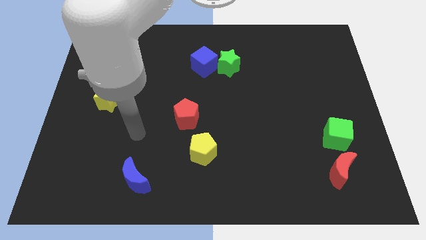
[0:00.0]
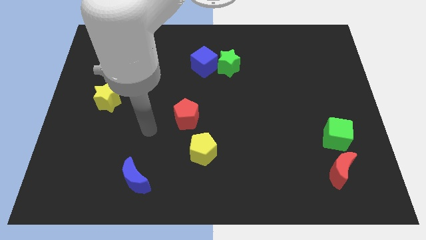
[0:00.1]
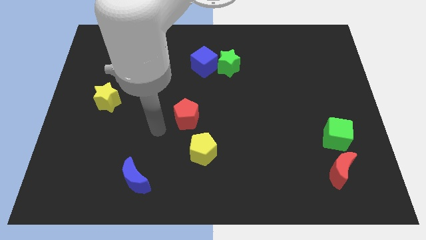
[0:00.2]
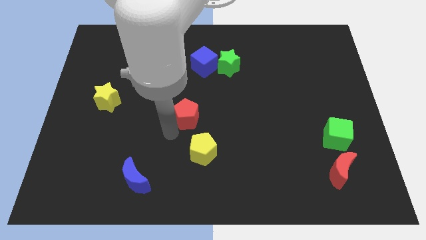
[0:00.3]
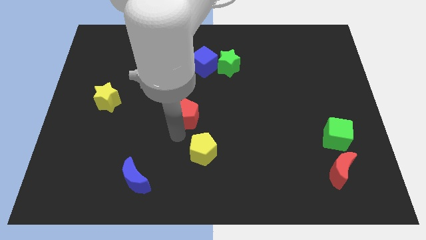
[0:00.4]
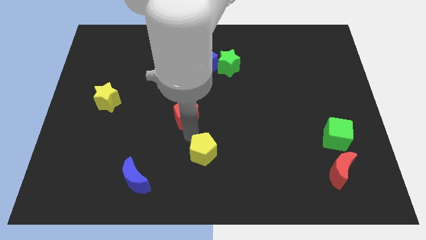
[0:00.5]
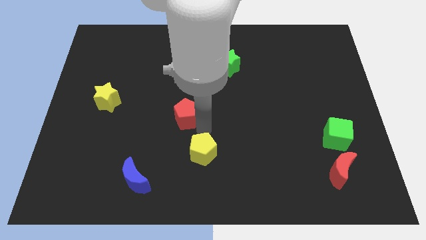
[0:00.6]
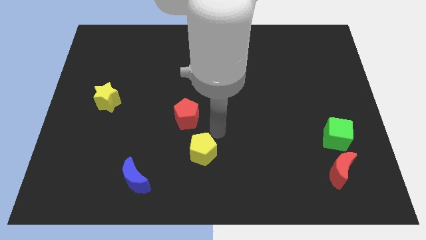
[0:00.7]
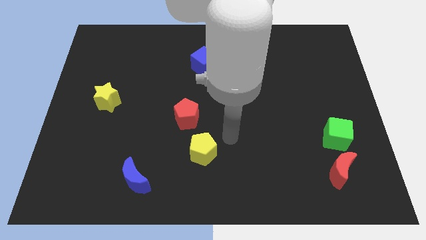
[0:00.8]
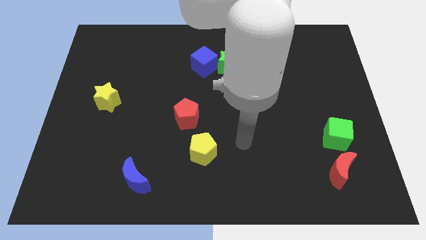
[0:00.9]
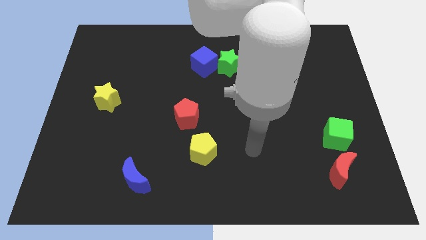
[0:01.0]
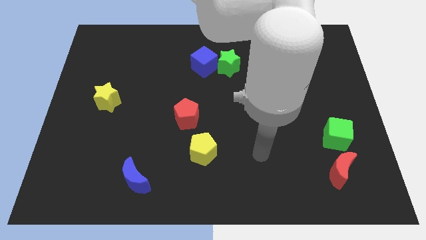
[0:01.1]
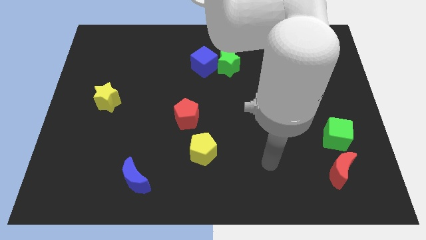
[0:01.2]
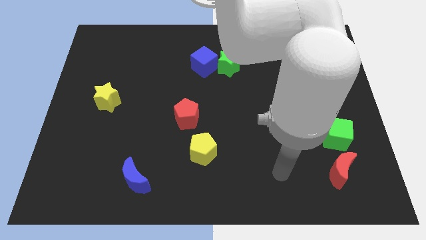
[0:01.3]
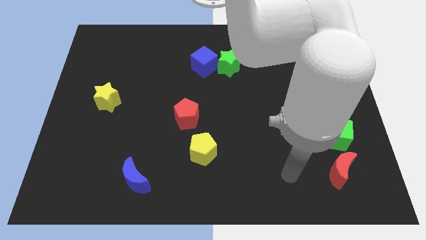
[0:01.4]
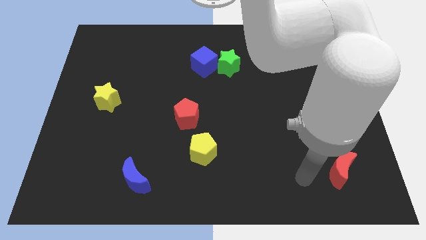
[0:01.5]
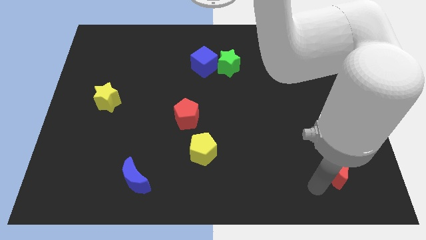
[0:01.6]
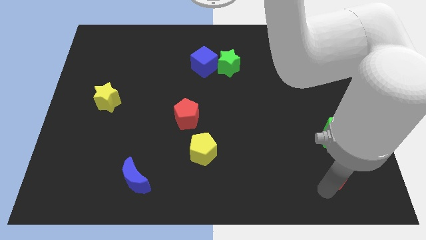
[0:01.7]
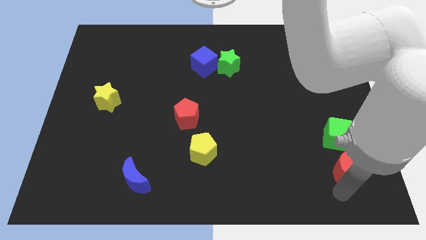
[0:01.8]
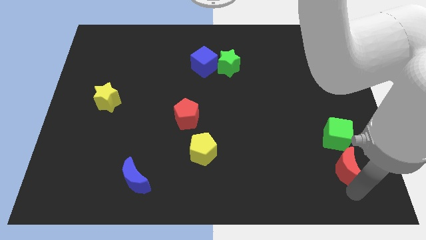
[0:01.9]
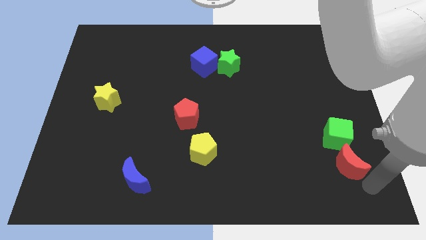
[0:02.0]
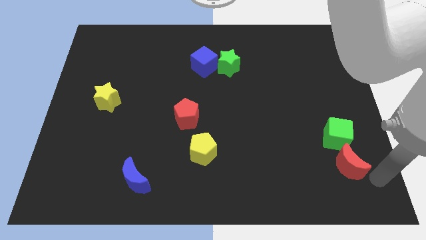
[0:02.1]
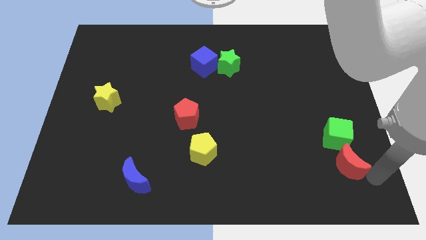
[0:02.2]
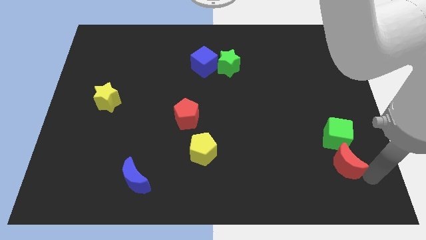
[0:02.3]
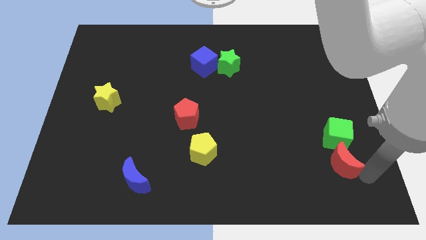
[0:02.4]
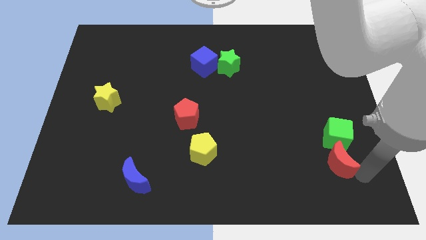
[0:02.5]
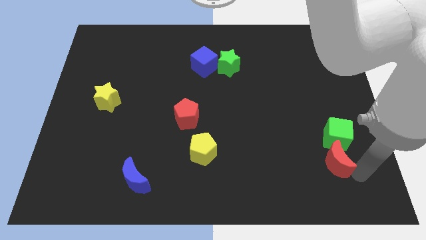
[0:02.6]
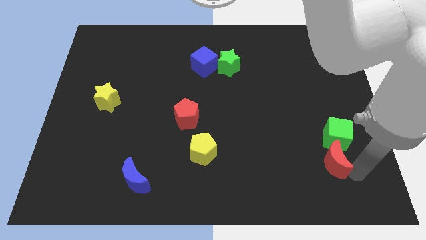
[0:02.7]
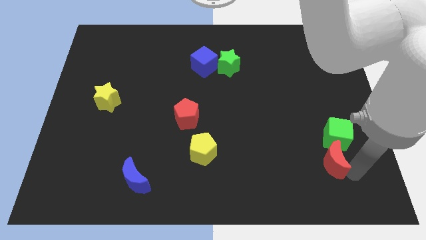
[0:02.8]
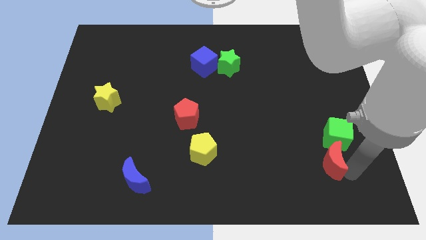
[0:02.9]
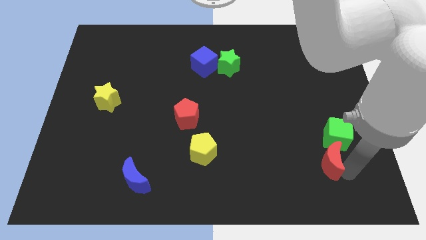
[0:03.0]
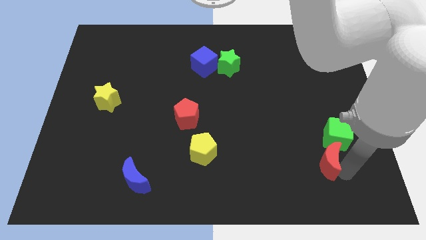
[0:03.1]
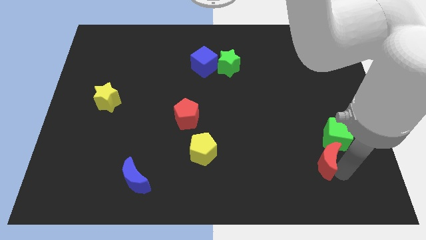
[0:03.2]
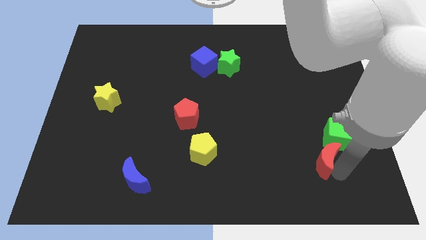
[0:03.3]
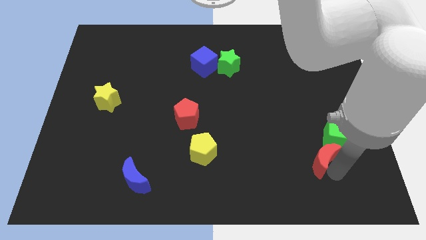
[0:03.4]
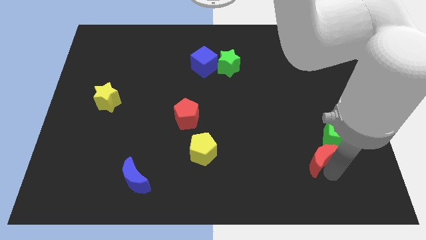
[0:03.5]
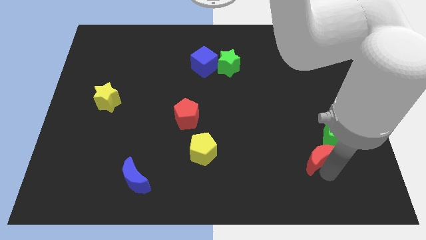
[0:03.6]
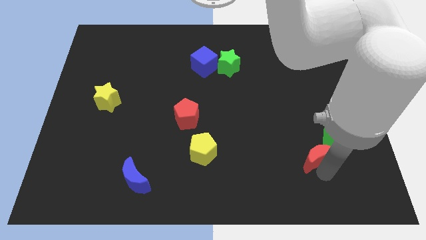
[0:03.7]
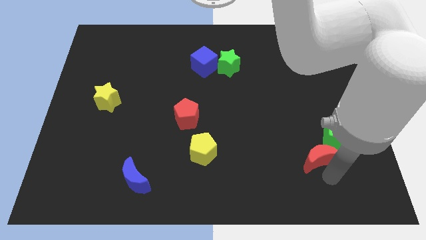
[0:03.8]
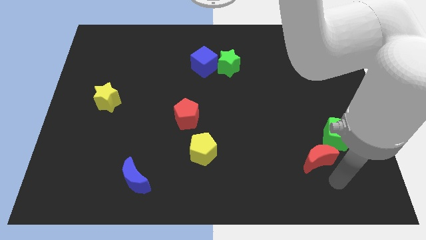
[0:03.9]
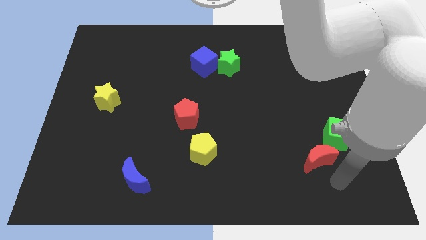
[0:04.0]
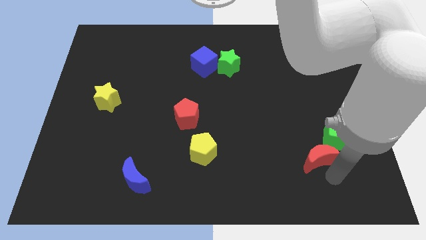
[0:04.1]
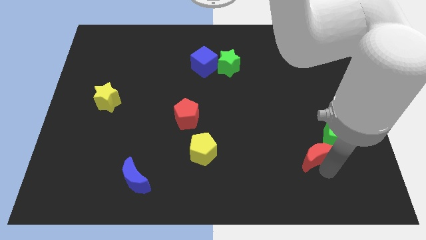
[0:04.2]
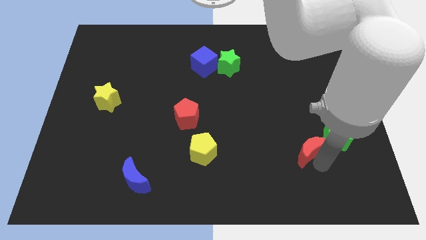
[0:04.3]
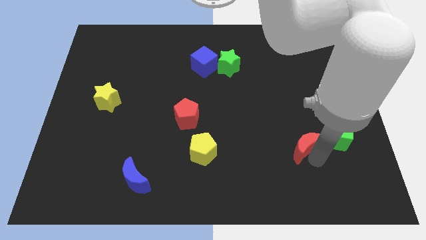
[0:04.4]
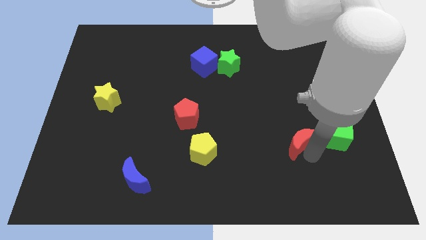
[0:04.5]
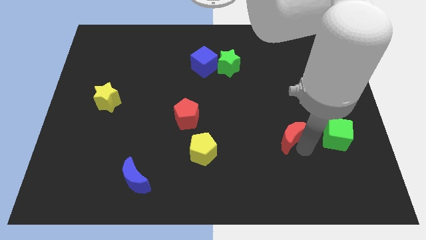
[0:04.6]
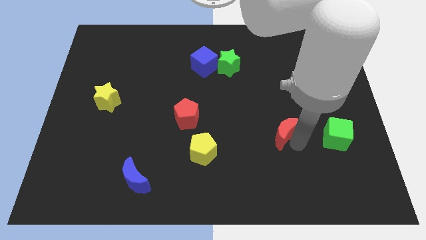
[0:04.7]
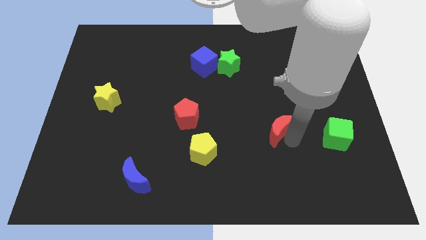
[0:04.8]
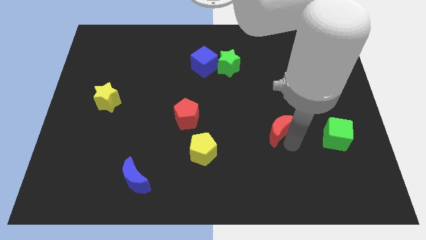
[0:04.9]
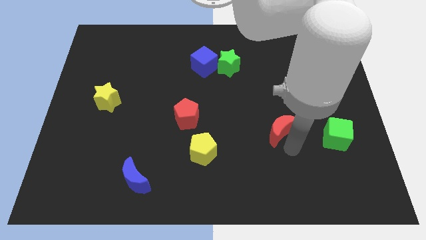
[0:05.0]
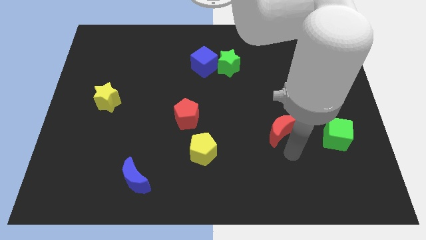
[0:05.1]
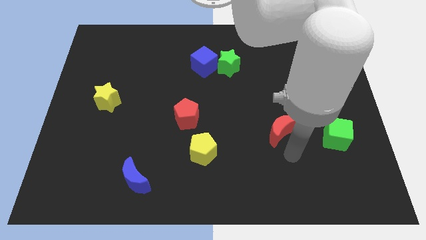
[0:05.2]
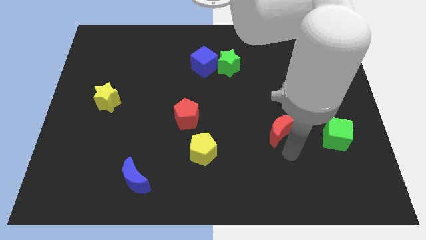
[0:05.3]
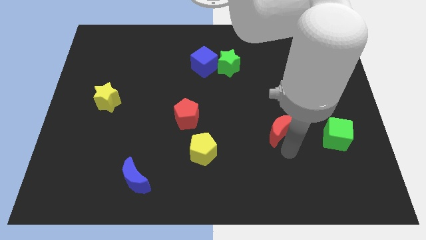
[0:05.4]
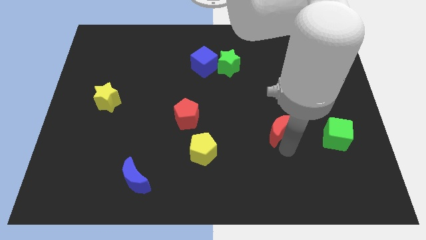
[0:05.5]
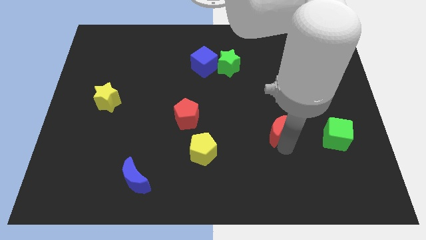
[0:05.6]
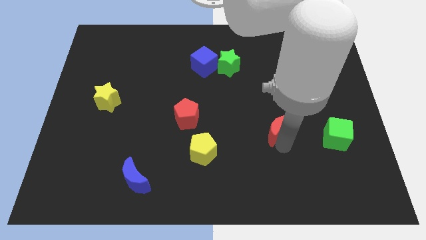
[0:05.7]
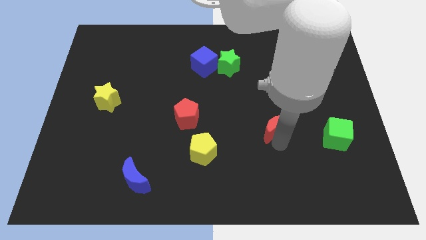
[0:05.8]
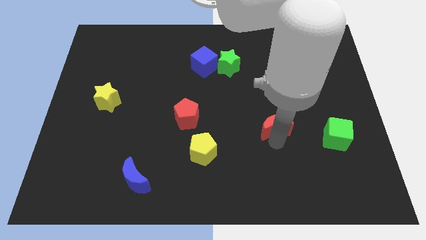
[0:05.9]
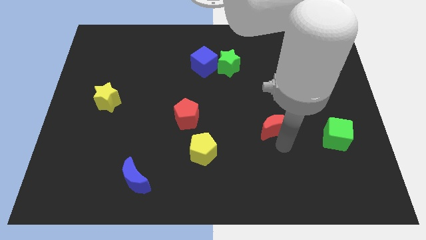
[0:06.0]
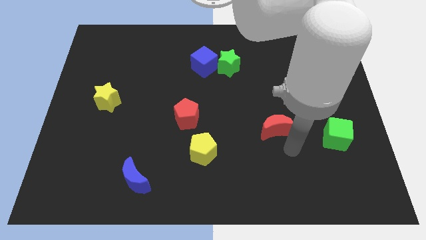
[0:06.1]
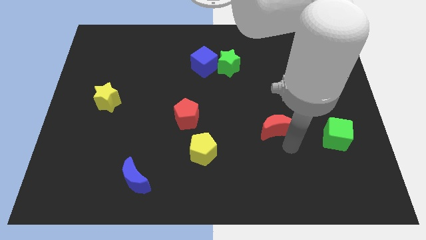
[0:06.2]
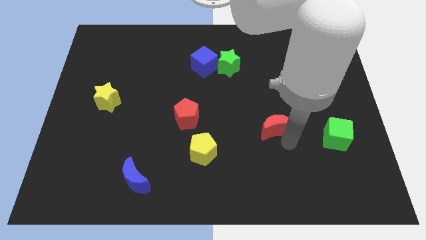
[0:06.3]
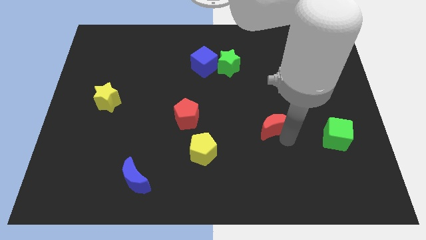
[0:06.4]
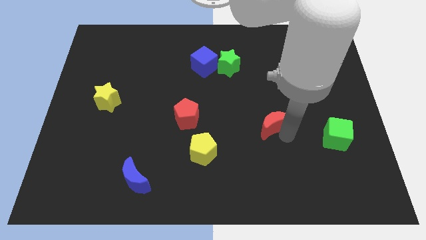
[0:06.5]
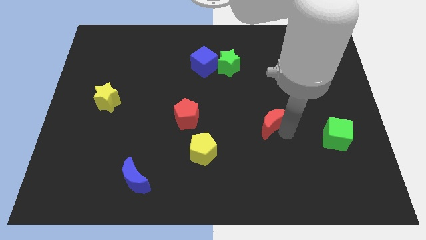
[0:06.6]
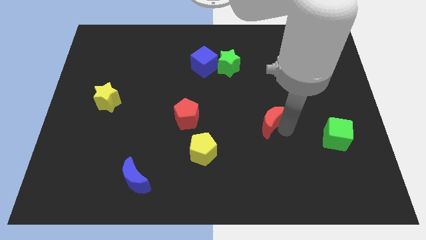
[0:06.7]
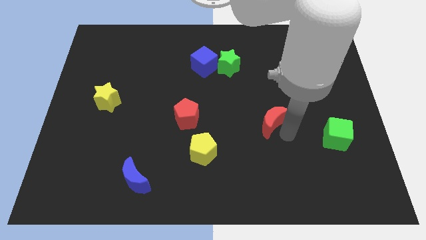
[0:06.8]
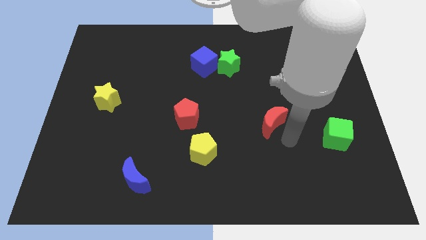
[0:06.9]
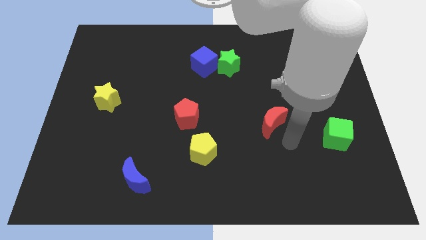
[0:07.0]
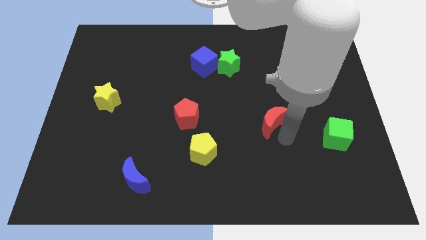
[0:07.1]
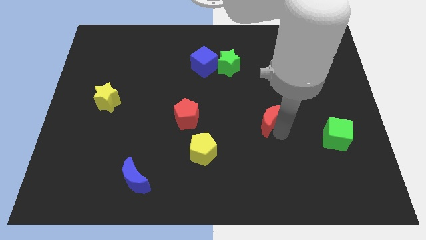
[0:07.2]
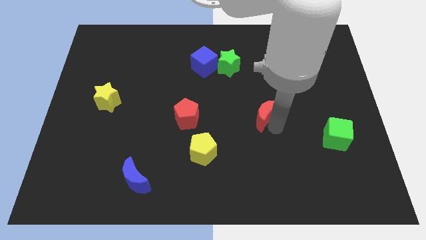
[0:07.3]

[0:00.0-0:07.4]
push the red moon up and to the left diagonally

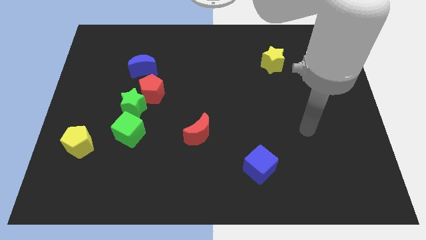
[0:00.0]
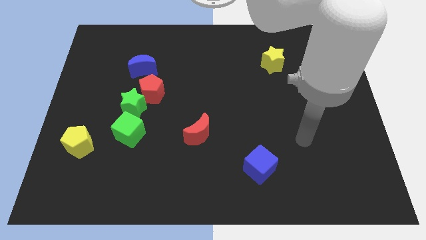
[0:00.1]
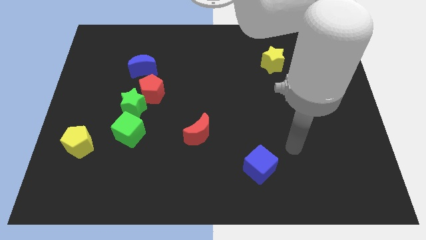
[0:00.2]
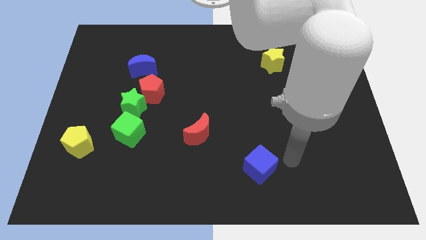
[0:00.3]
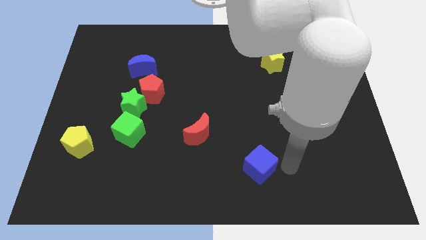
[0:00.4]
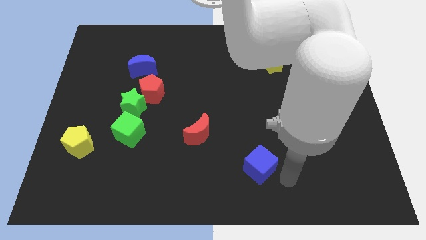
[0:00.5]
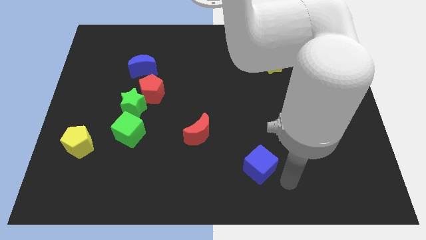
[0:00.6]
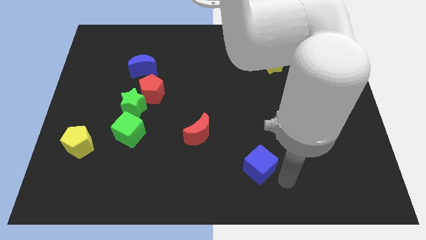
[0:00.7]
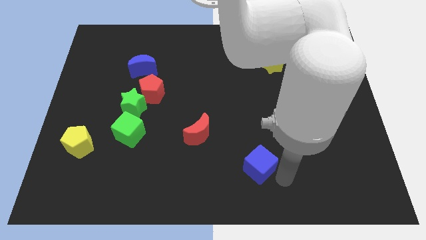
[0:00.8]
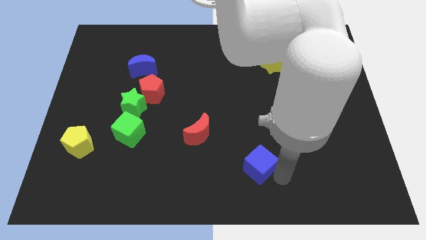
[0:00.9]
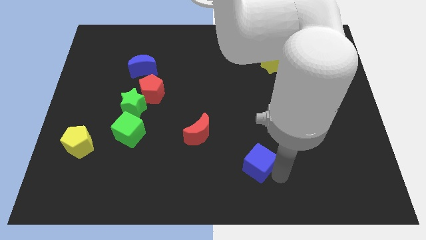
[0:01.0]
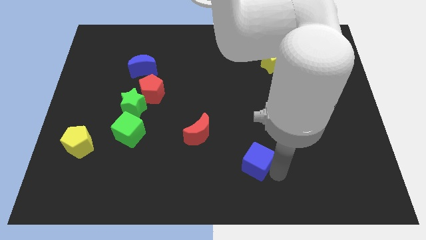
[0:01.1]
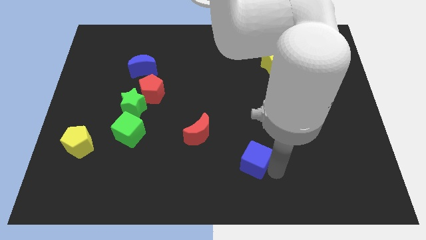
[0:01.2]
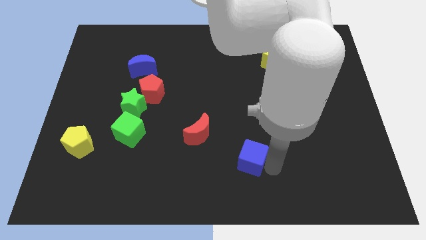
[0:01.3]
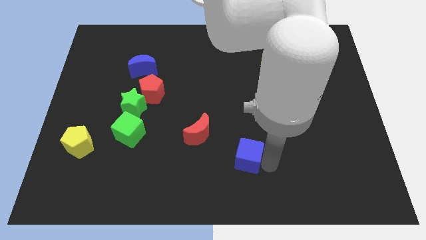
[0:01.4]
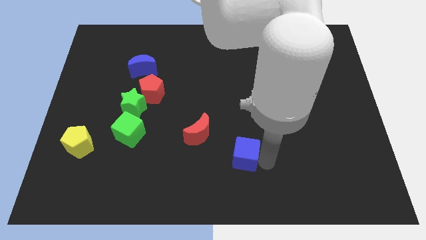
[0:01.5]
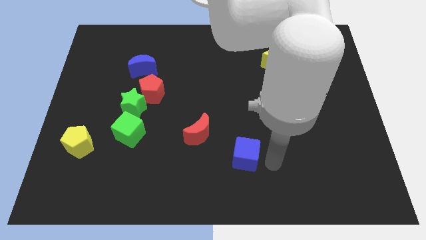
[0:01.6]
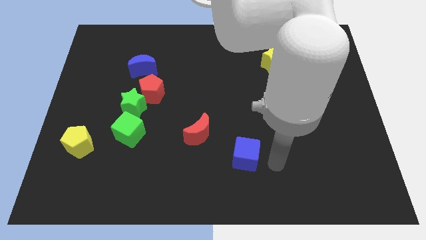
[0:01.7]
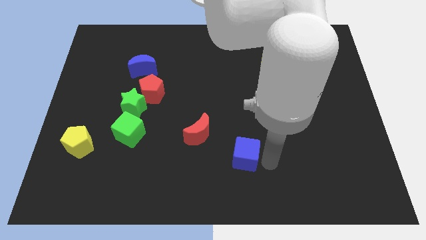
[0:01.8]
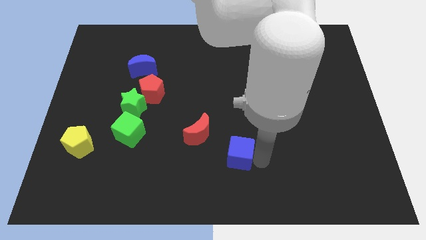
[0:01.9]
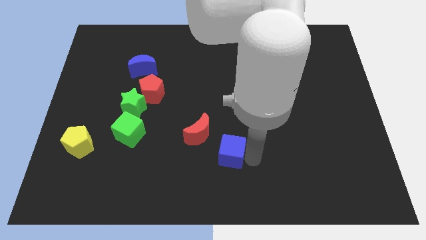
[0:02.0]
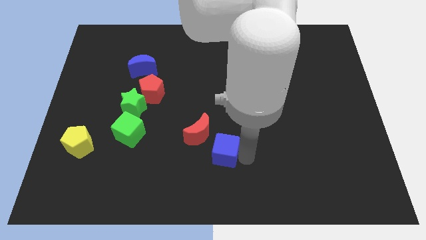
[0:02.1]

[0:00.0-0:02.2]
slightly push the blue cube up and then to the left
